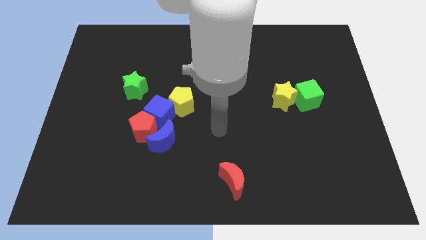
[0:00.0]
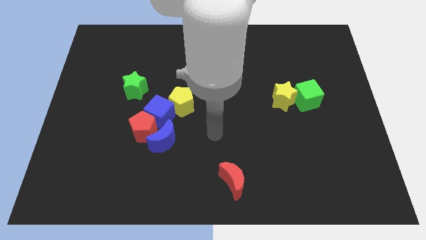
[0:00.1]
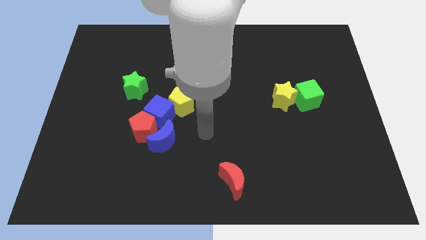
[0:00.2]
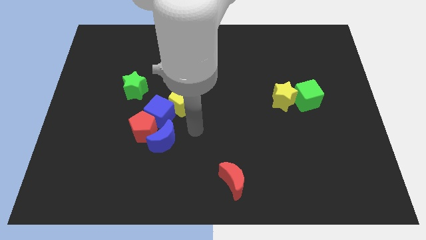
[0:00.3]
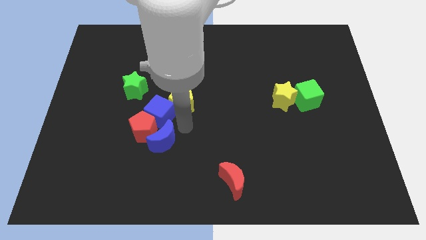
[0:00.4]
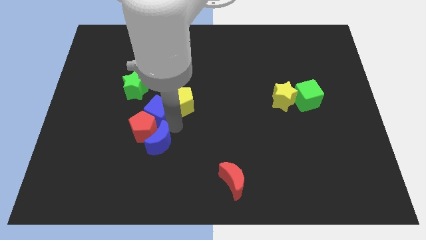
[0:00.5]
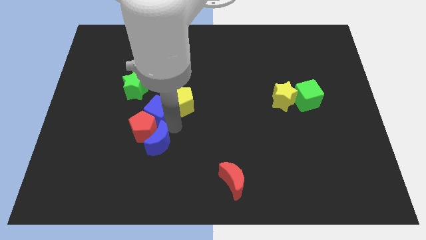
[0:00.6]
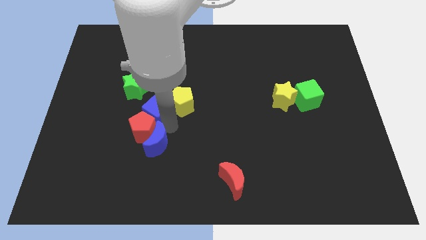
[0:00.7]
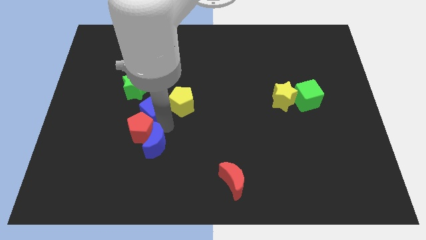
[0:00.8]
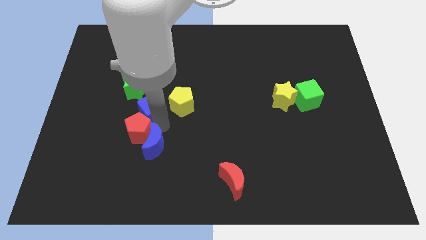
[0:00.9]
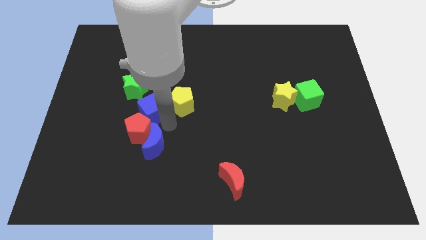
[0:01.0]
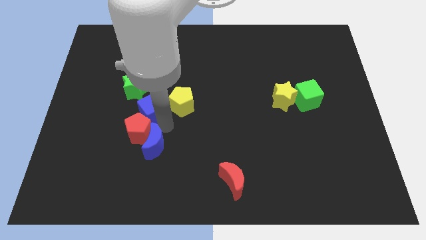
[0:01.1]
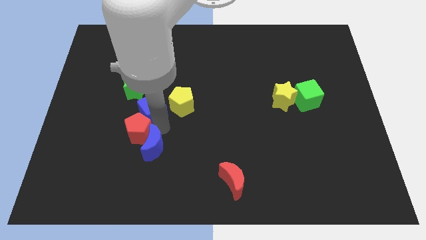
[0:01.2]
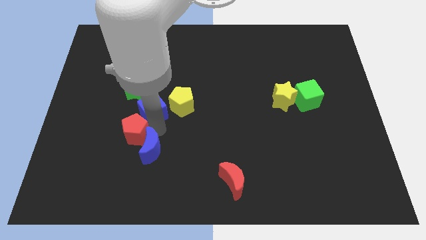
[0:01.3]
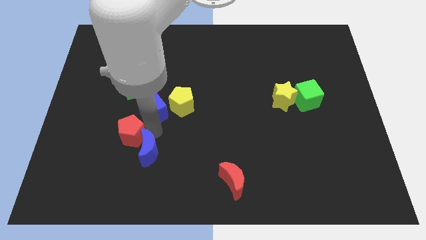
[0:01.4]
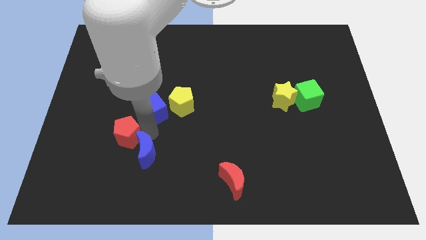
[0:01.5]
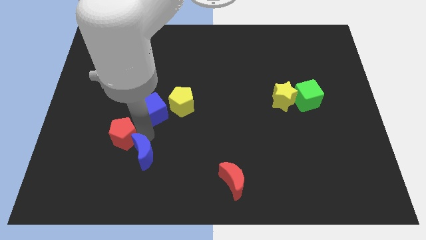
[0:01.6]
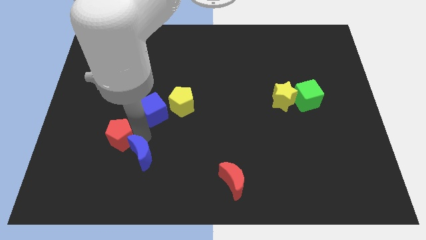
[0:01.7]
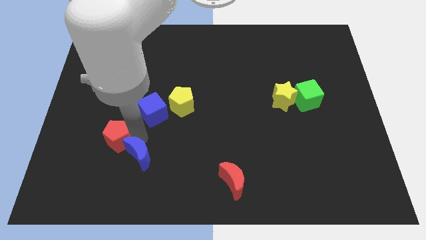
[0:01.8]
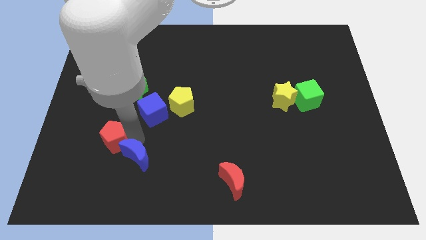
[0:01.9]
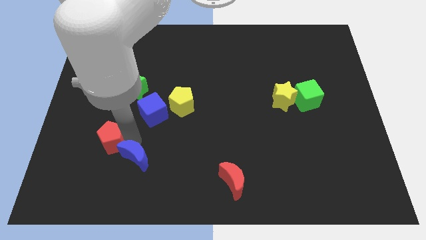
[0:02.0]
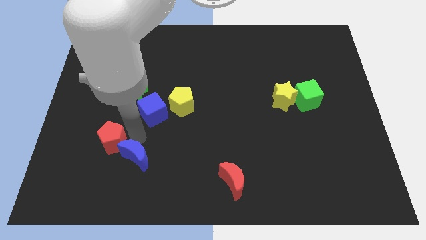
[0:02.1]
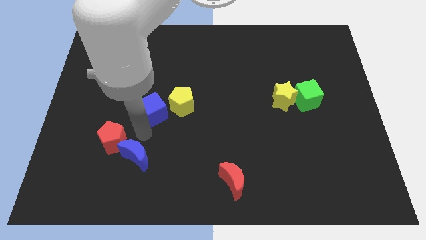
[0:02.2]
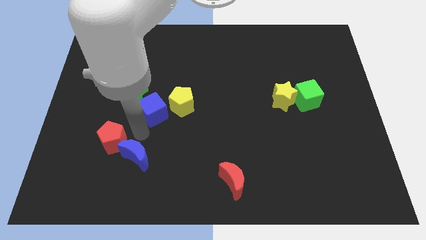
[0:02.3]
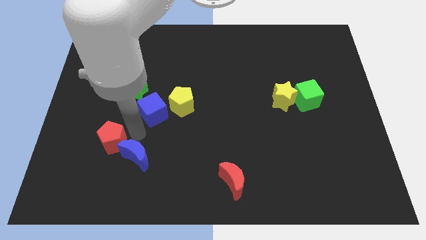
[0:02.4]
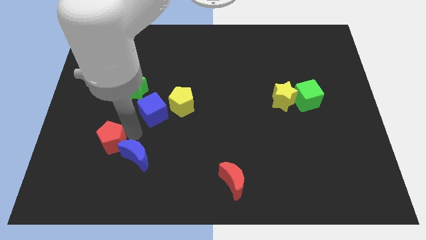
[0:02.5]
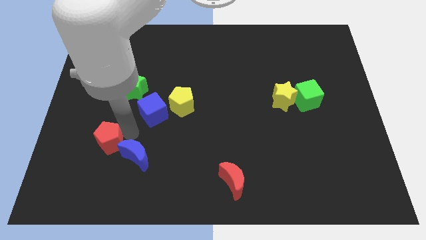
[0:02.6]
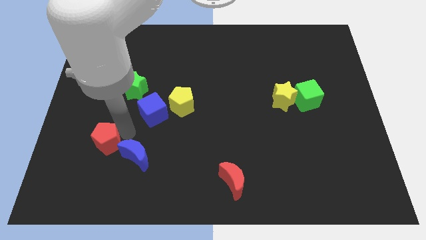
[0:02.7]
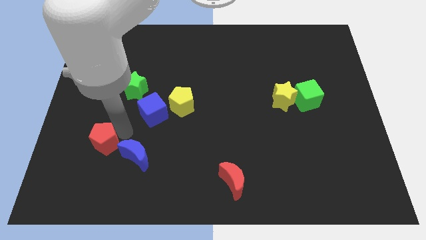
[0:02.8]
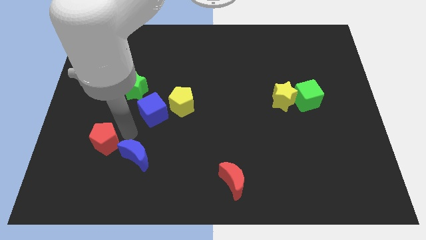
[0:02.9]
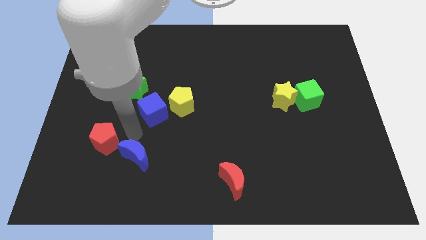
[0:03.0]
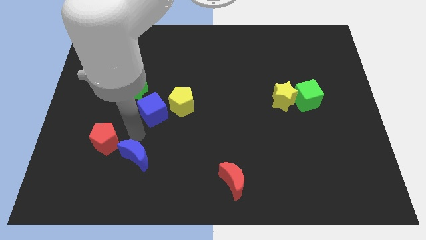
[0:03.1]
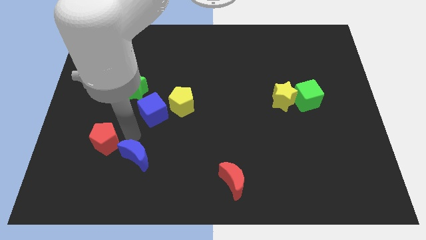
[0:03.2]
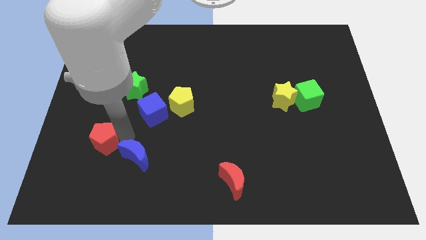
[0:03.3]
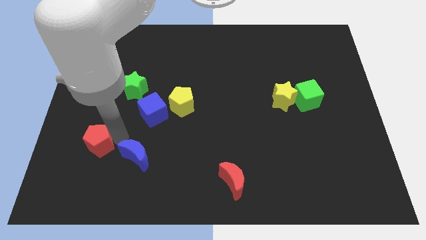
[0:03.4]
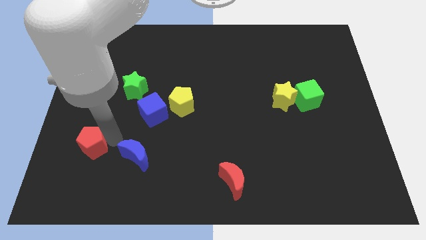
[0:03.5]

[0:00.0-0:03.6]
separate the red pentagon from the blue cube and blue moon

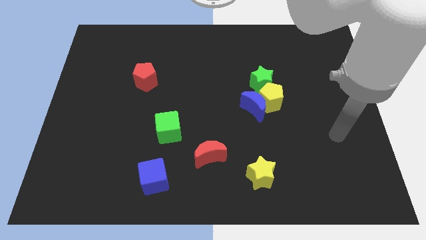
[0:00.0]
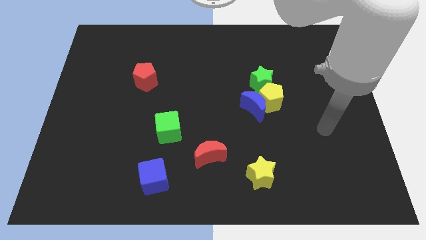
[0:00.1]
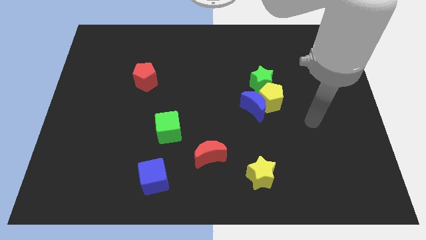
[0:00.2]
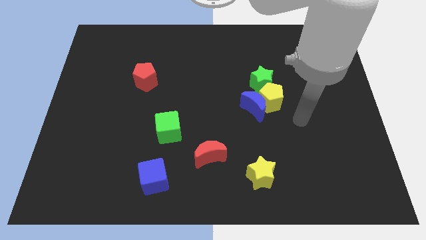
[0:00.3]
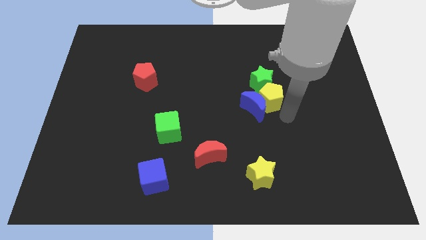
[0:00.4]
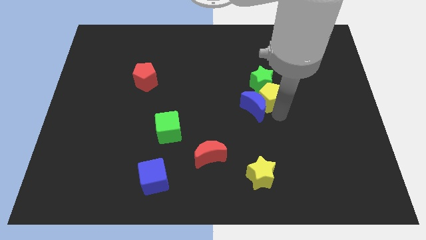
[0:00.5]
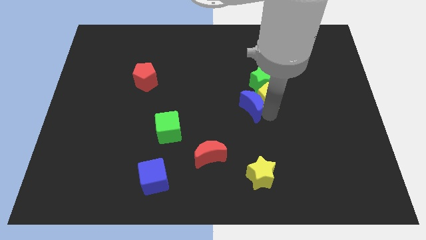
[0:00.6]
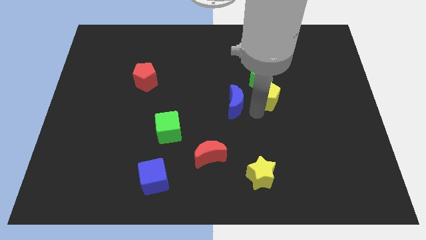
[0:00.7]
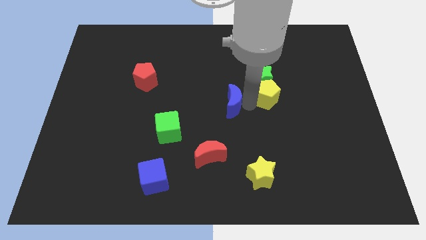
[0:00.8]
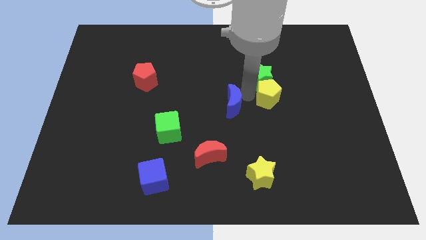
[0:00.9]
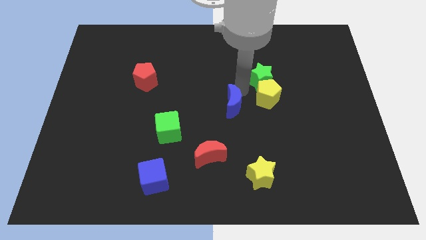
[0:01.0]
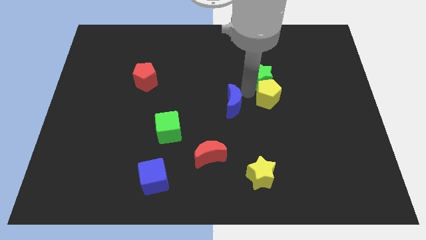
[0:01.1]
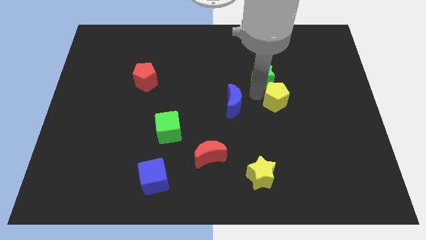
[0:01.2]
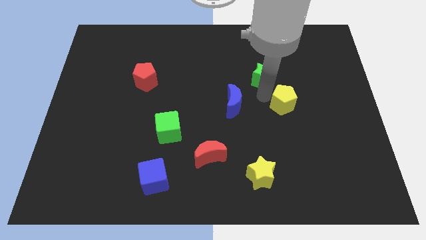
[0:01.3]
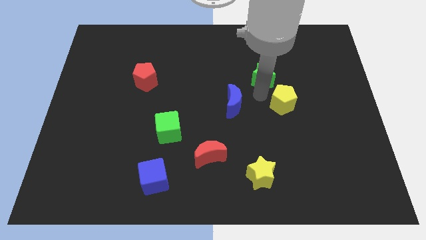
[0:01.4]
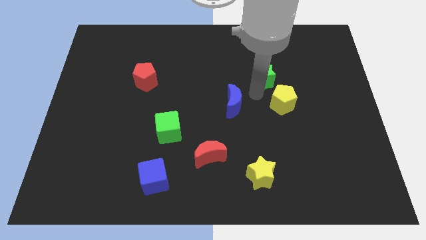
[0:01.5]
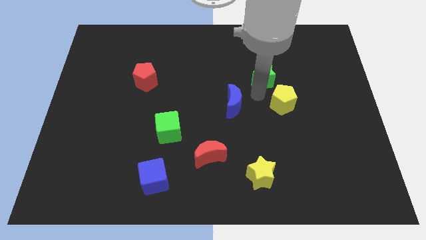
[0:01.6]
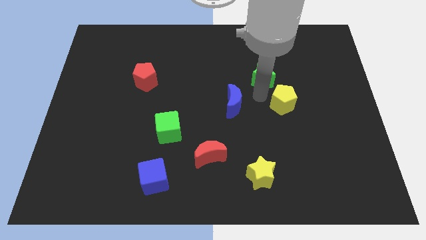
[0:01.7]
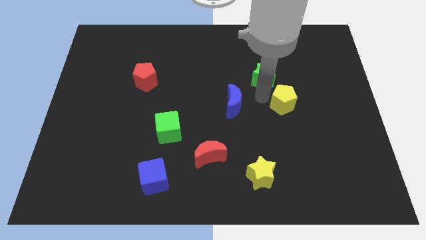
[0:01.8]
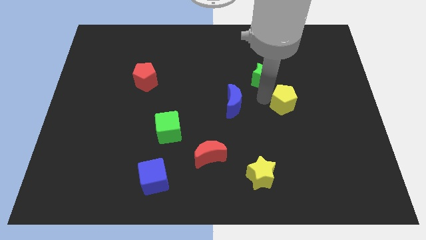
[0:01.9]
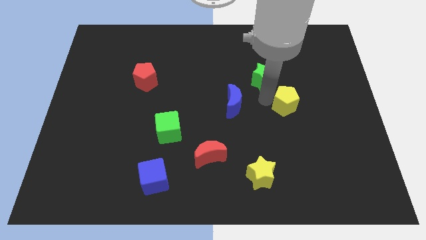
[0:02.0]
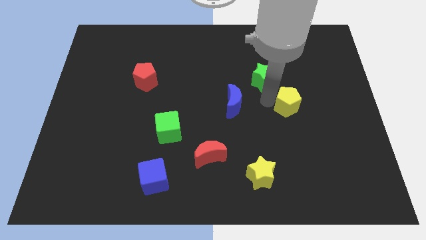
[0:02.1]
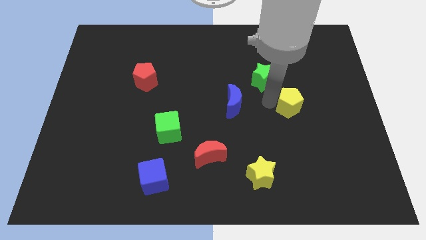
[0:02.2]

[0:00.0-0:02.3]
move the yellow pentagon away from the blue moon and green star

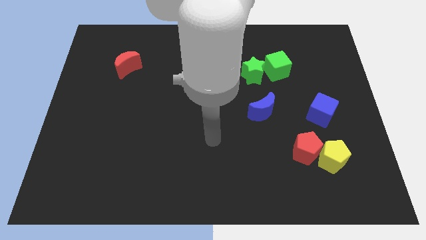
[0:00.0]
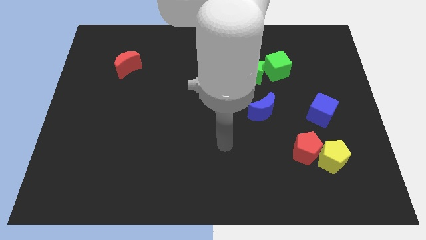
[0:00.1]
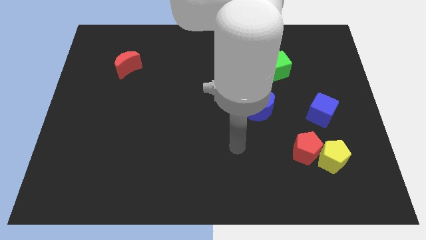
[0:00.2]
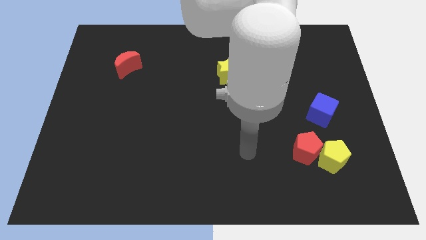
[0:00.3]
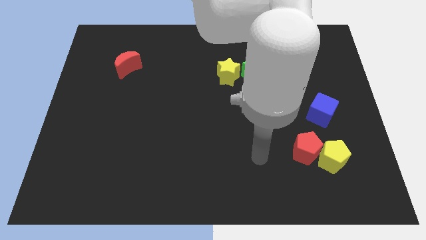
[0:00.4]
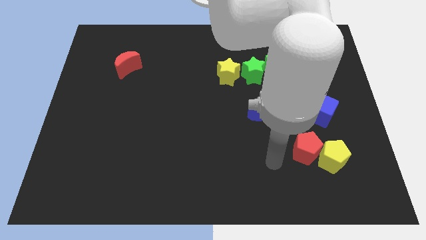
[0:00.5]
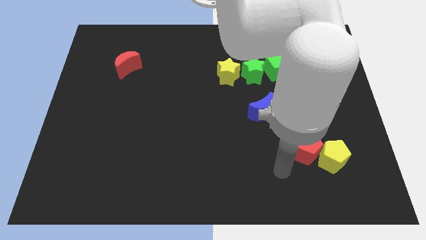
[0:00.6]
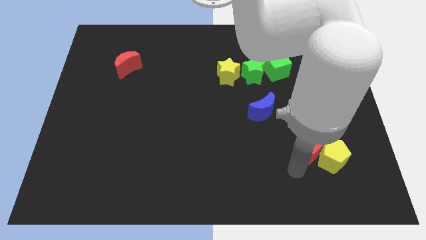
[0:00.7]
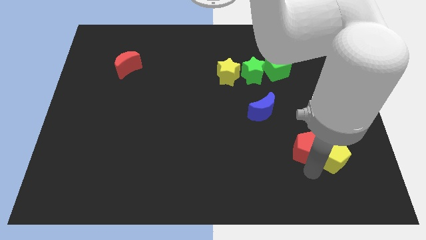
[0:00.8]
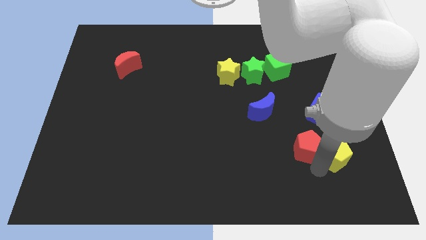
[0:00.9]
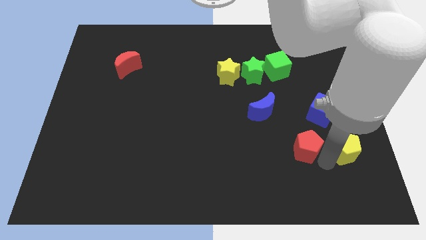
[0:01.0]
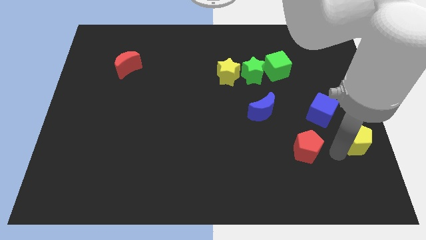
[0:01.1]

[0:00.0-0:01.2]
separate the red pentagon from the yellow pentagon

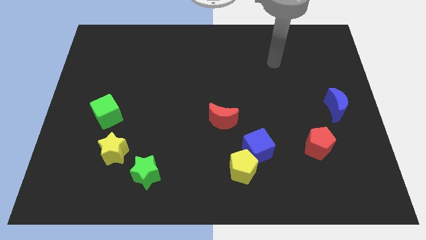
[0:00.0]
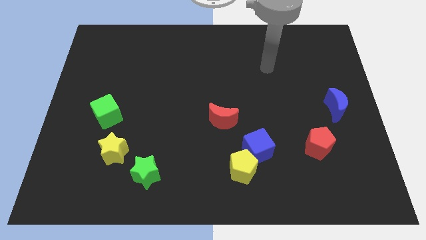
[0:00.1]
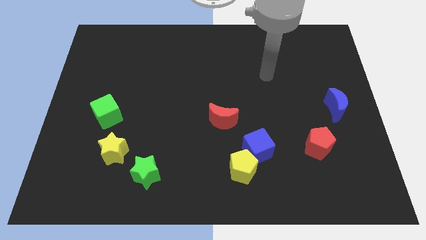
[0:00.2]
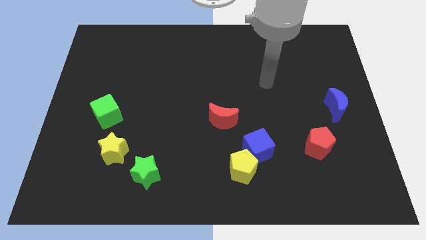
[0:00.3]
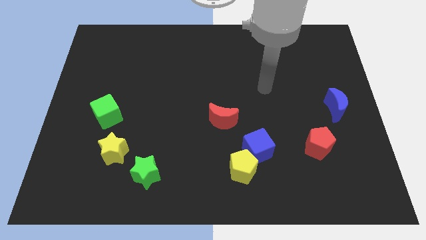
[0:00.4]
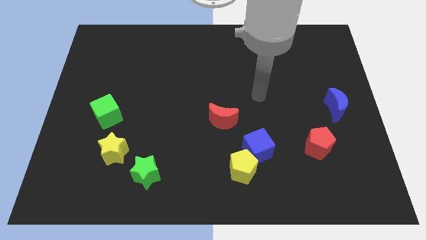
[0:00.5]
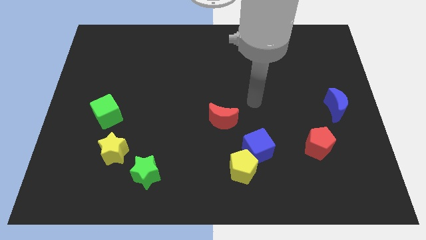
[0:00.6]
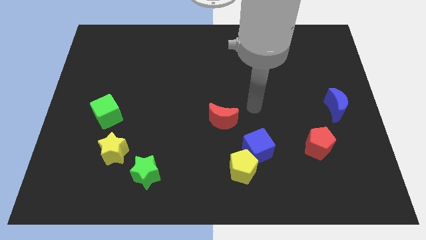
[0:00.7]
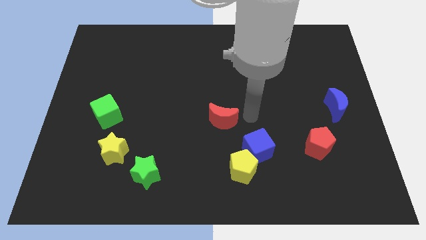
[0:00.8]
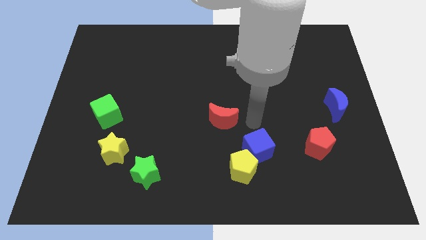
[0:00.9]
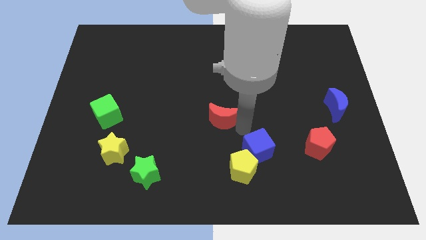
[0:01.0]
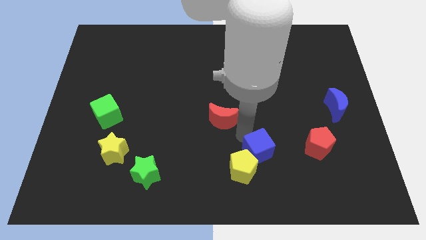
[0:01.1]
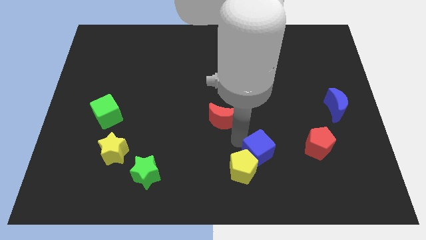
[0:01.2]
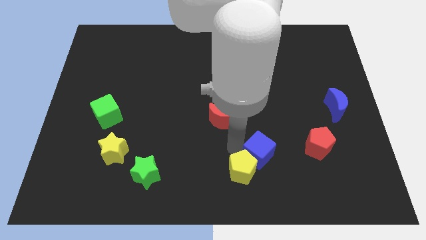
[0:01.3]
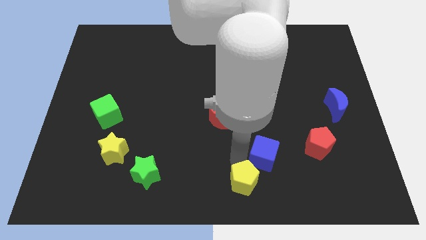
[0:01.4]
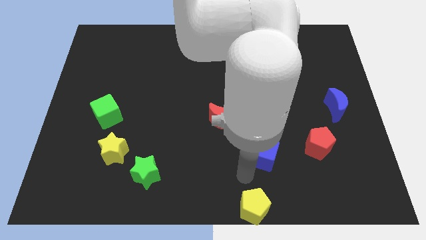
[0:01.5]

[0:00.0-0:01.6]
separate the blue cube from the yellow pentagon

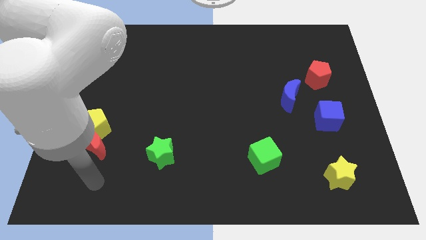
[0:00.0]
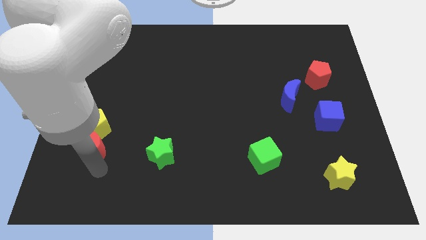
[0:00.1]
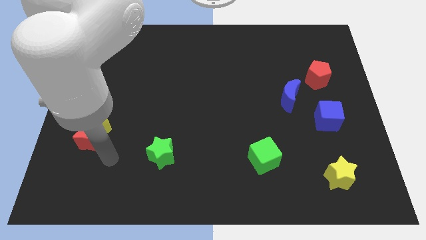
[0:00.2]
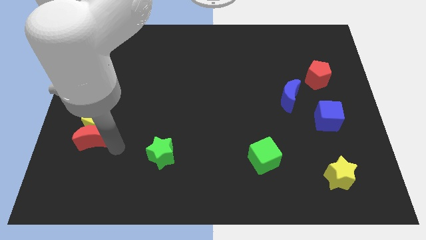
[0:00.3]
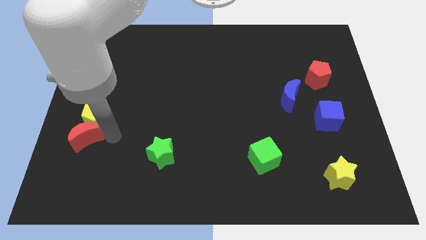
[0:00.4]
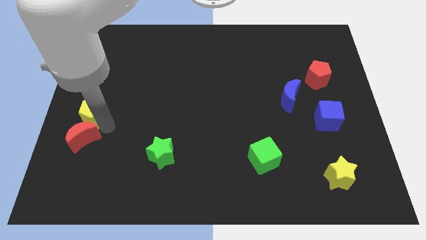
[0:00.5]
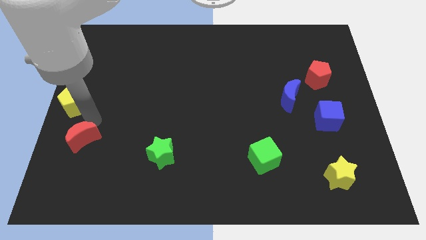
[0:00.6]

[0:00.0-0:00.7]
move the red moon away from the yellow pentagon
